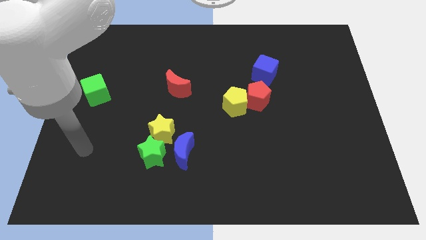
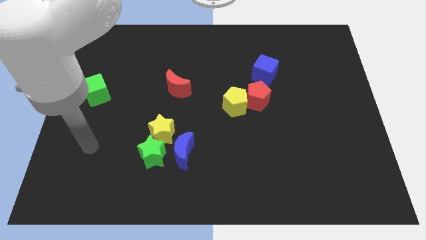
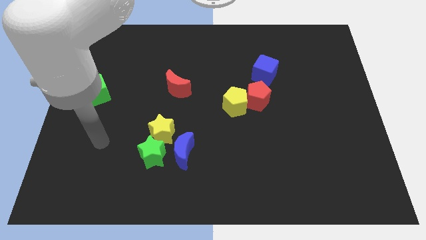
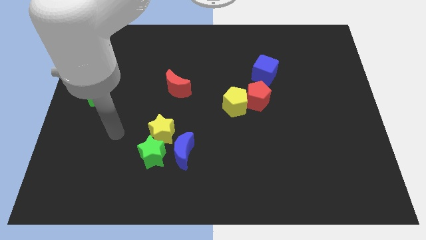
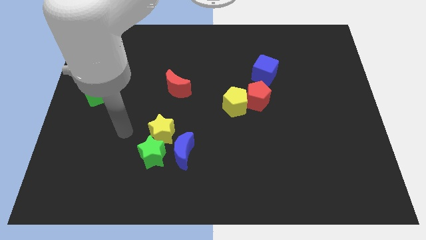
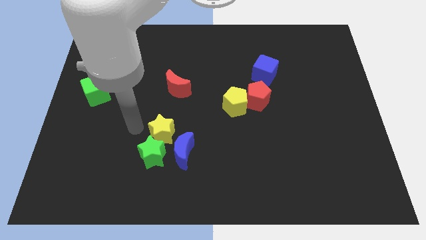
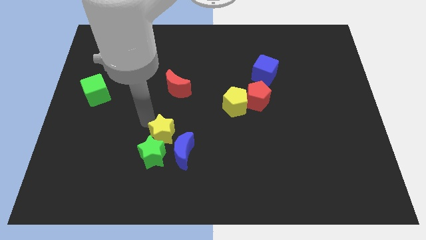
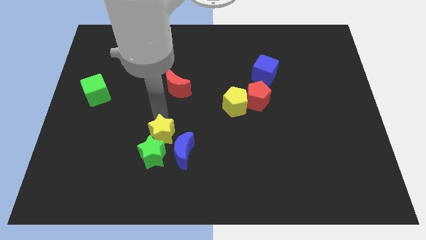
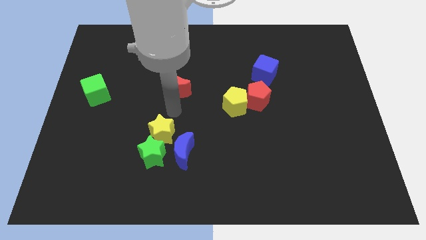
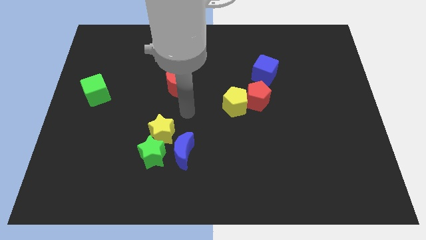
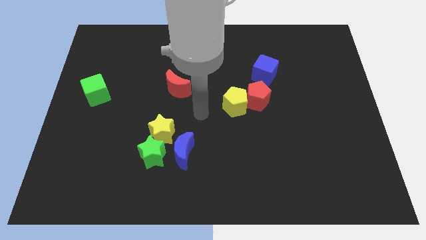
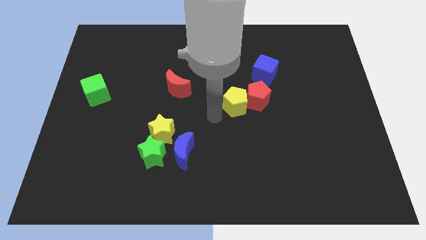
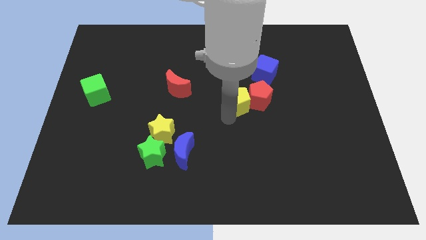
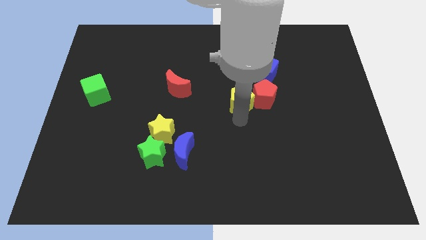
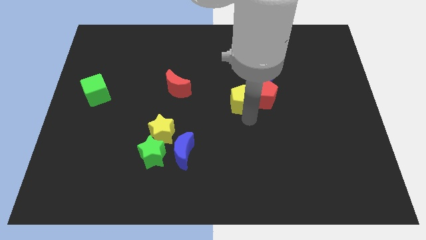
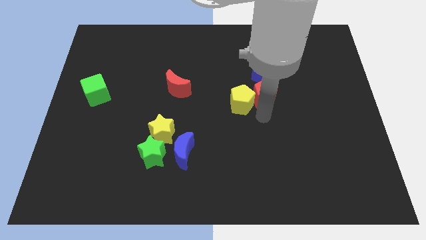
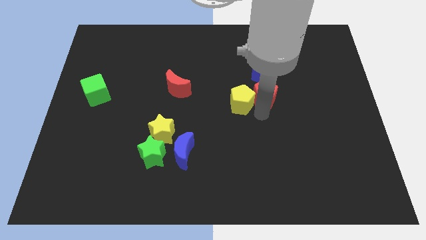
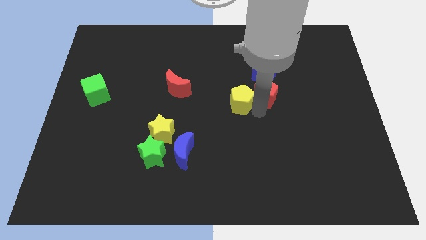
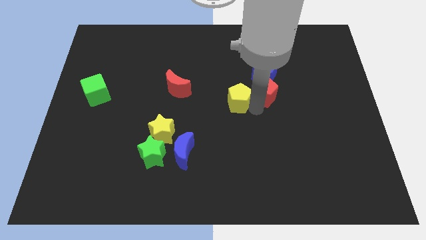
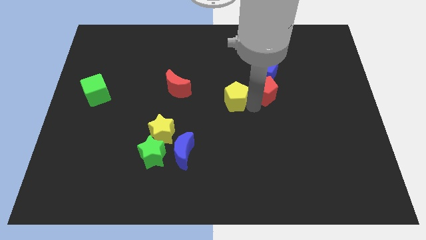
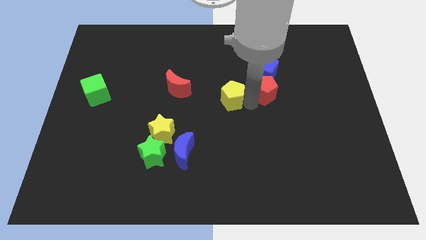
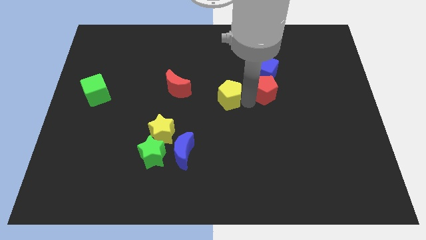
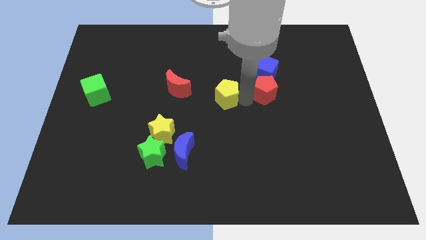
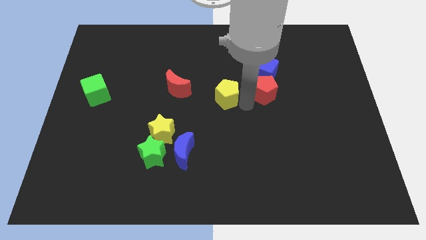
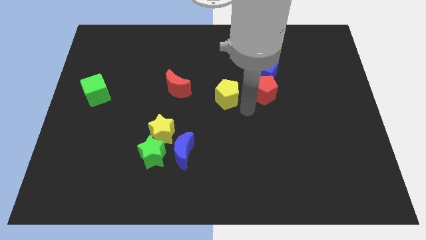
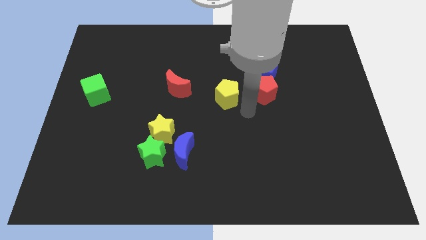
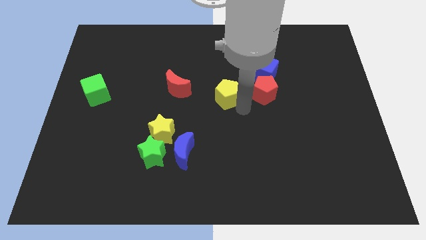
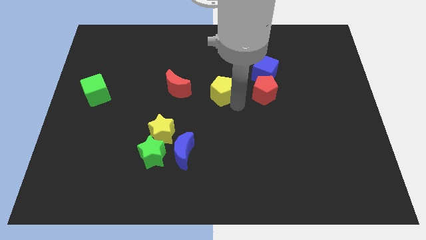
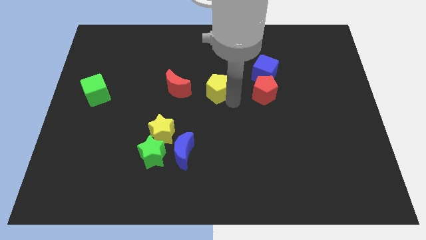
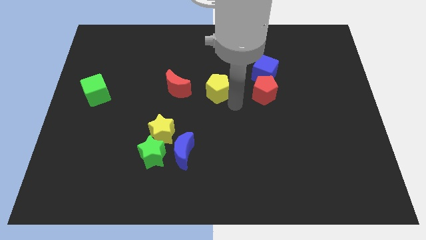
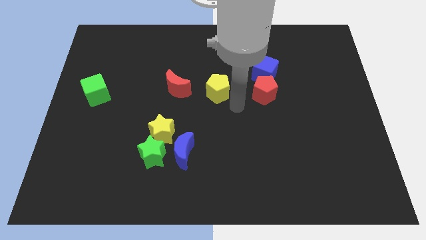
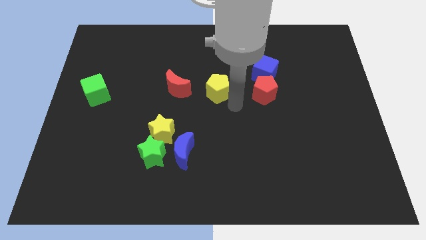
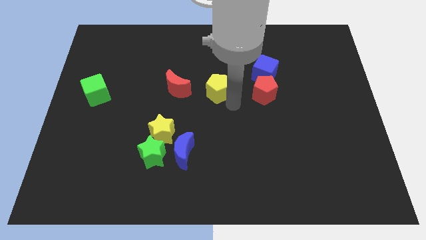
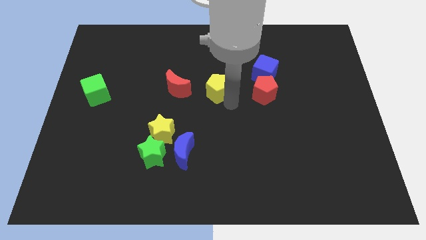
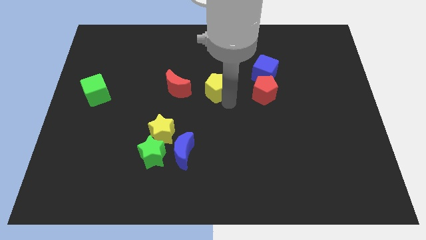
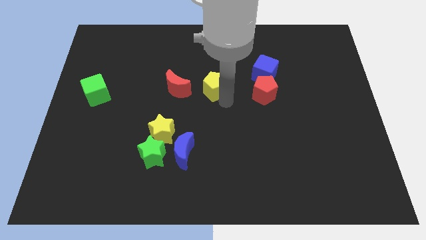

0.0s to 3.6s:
slightly slide the yellow pentagon upwards and left diagonally

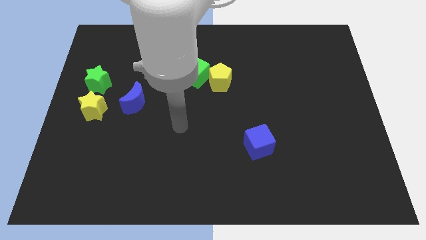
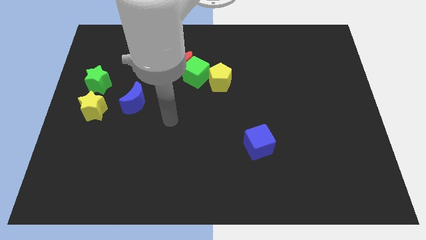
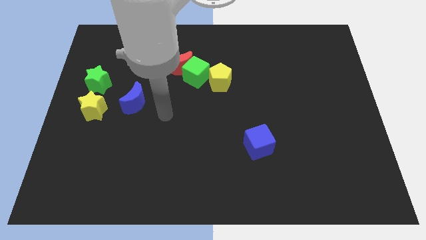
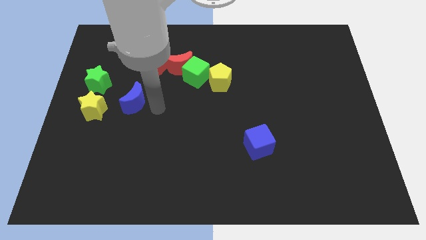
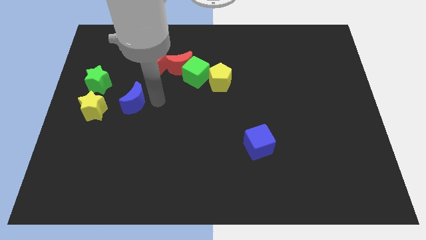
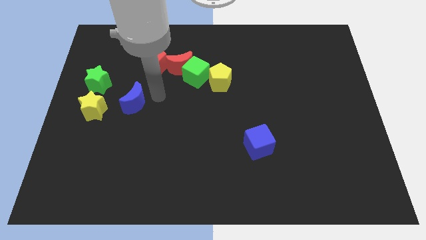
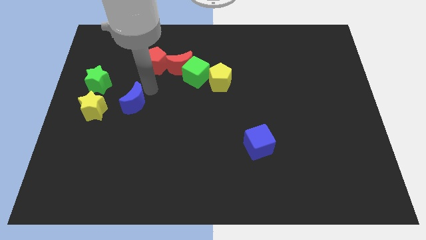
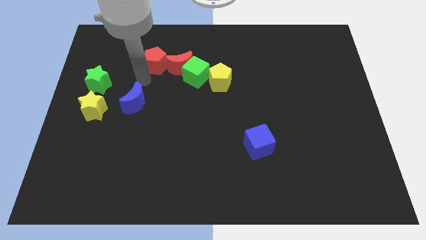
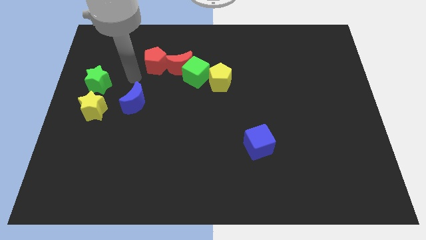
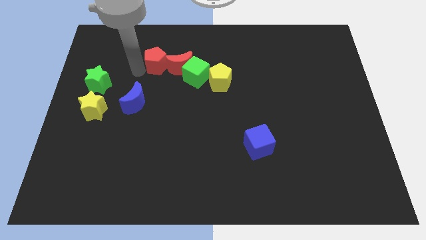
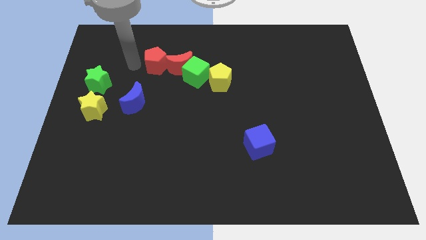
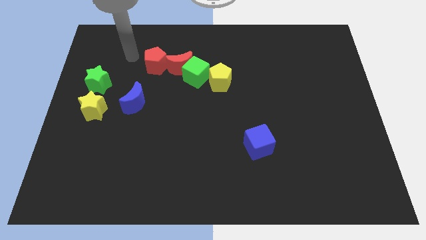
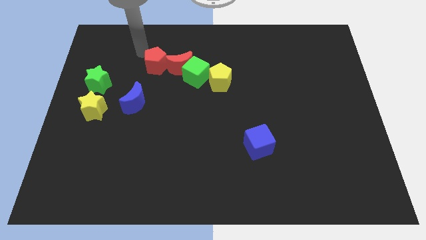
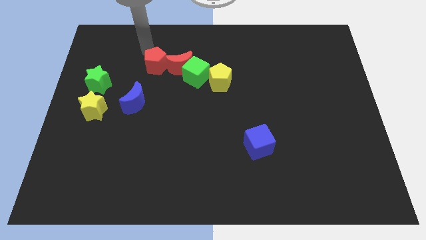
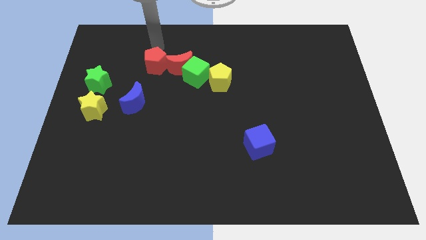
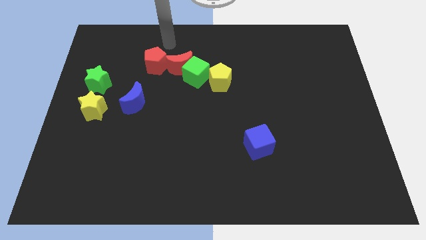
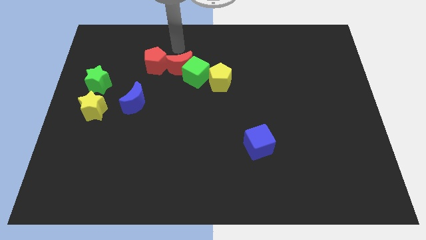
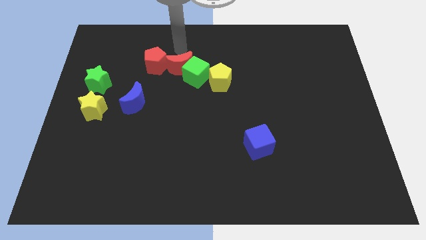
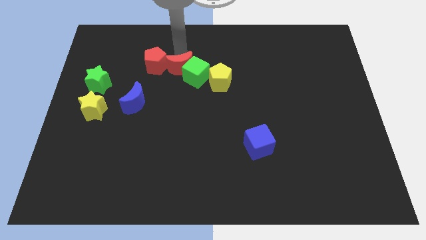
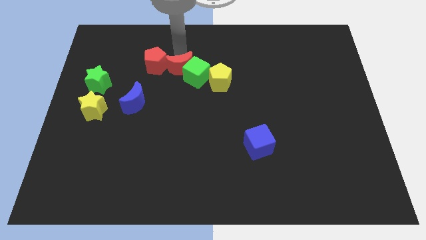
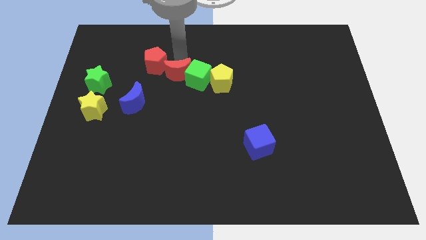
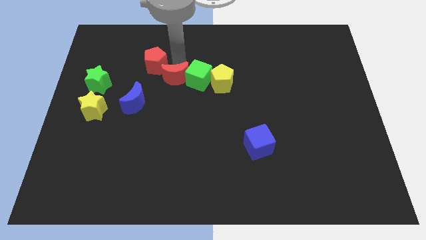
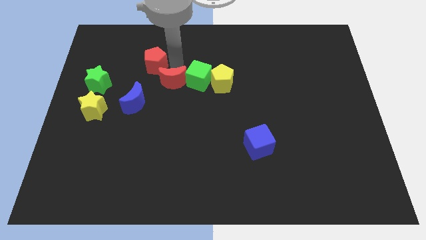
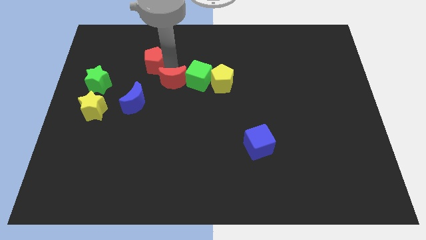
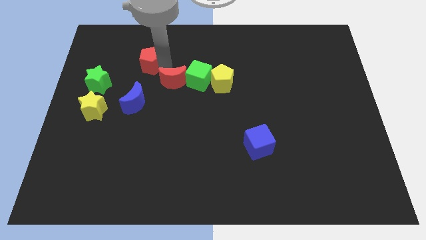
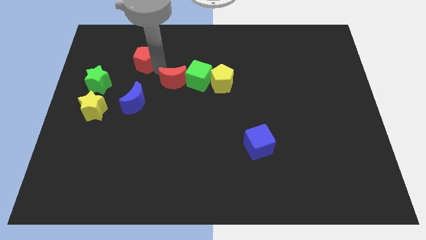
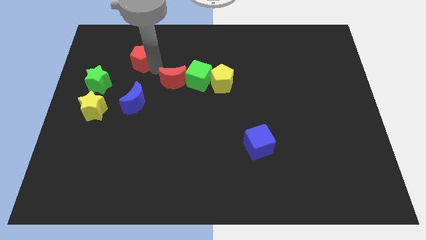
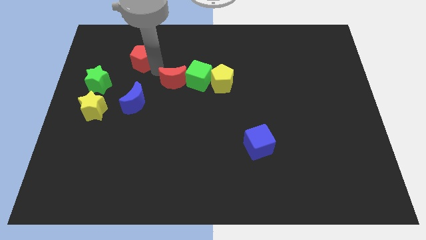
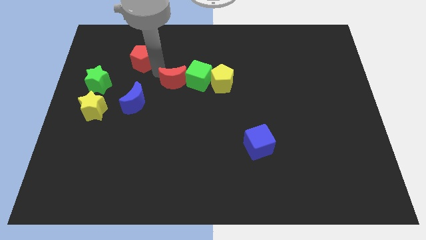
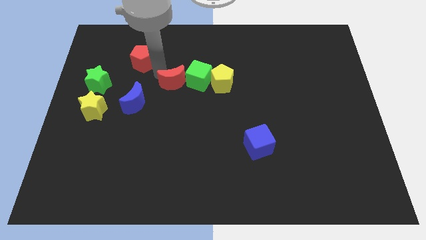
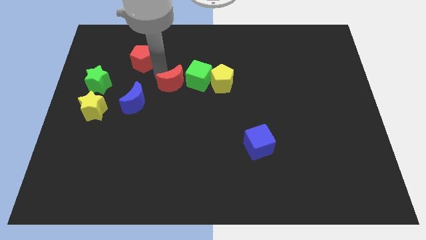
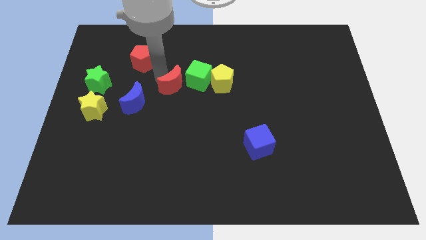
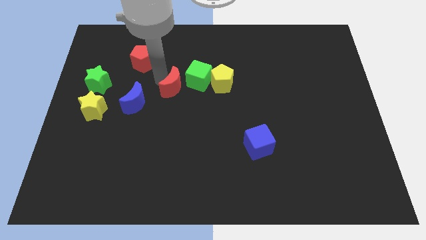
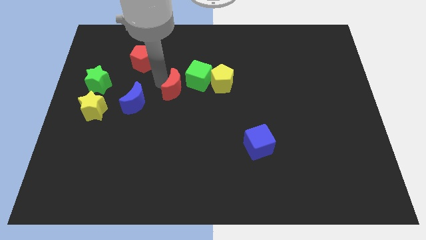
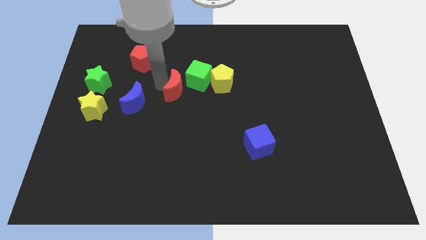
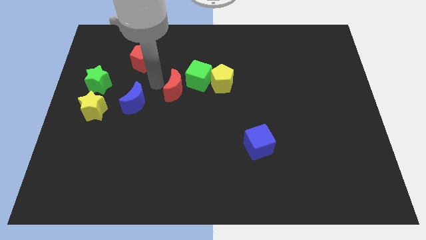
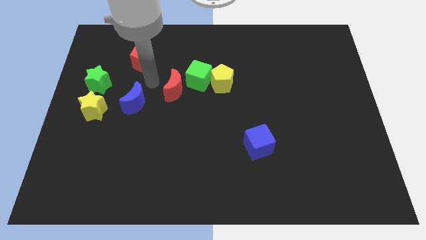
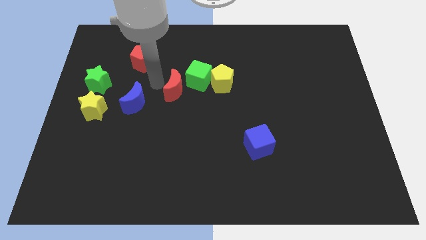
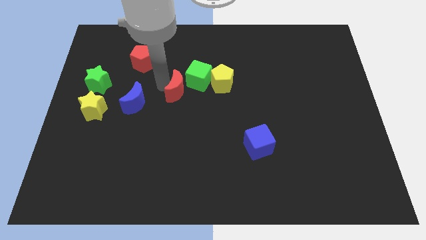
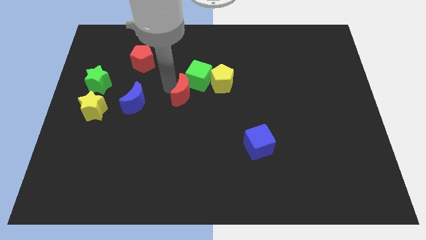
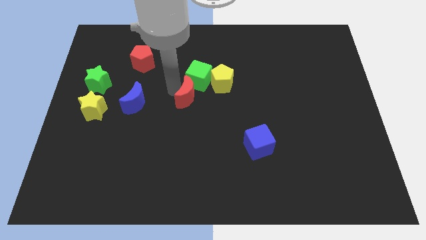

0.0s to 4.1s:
slightly move the red moon down and right

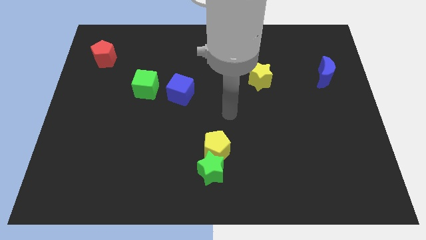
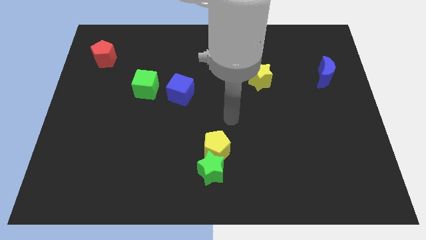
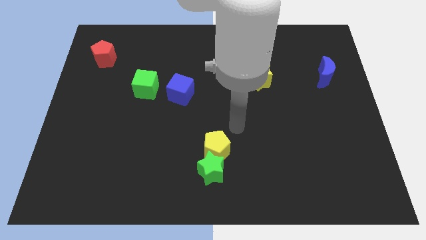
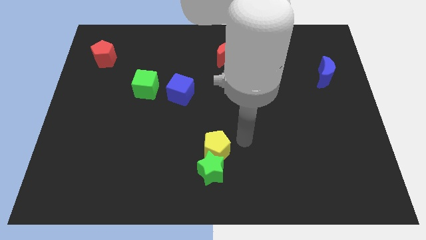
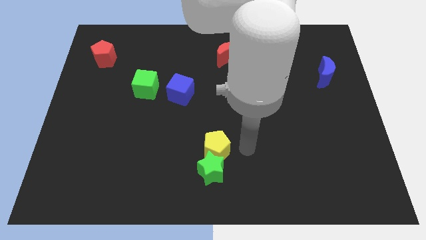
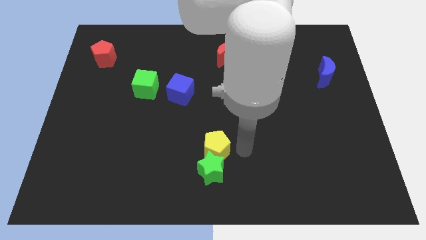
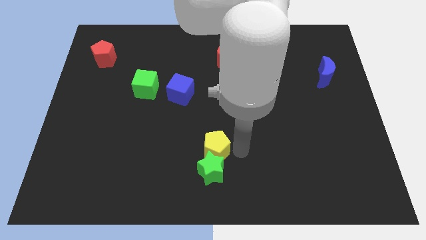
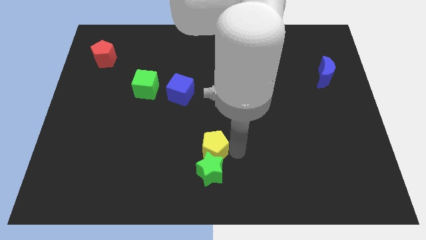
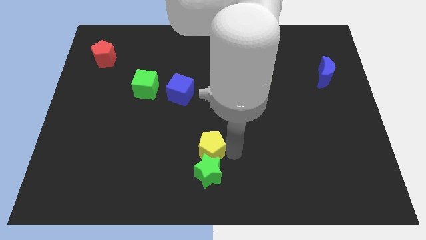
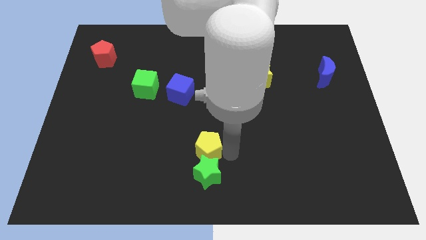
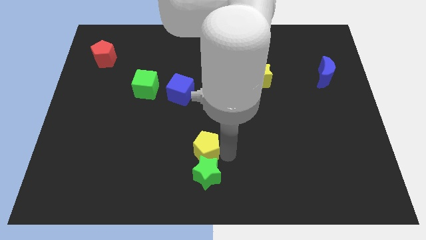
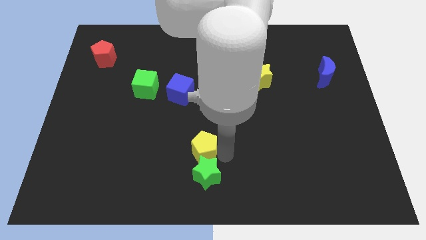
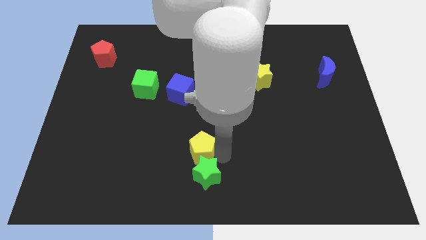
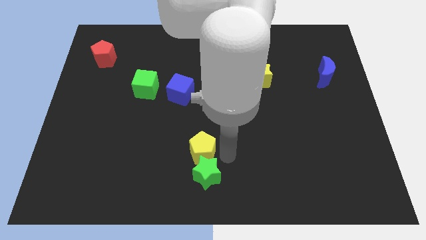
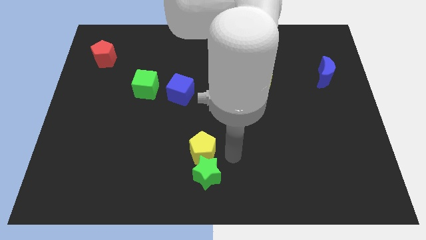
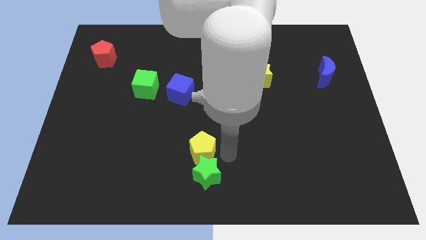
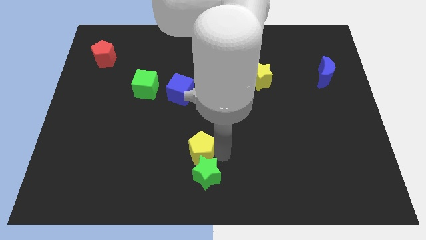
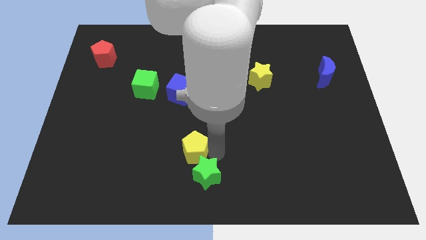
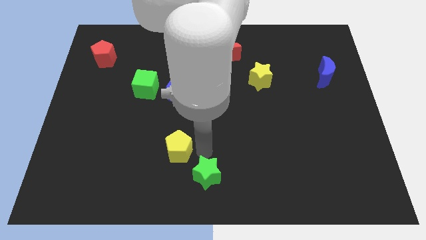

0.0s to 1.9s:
push the yellow pentagon slightly left
